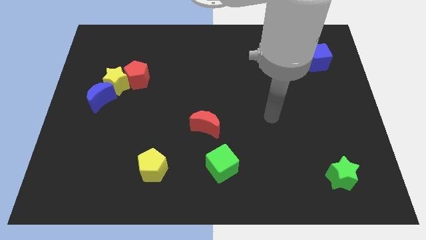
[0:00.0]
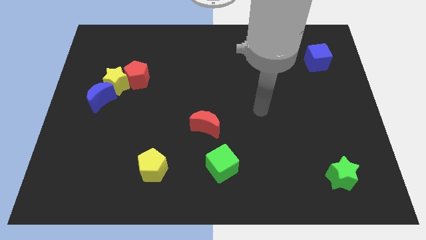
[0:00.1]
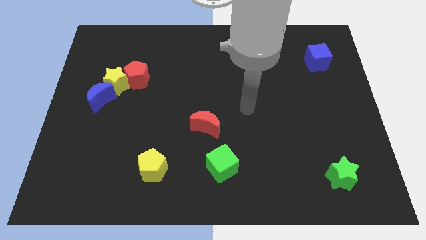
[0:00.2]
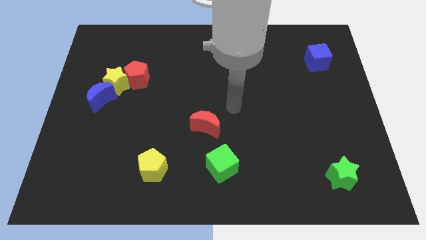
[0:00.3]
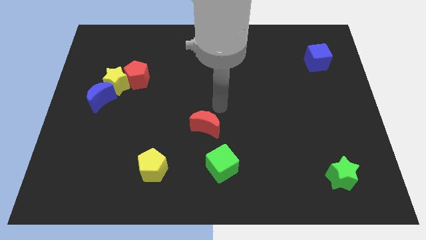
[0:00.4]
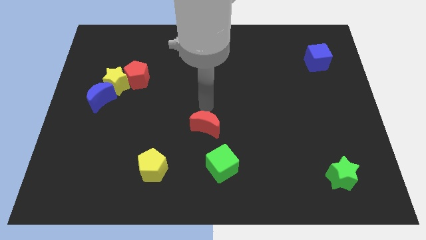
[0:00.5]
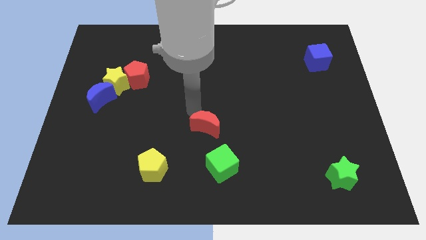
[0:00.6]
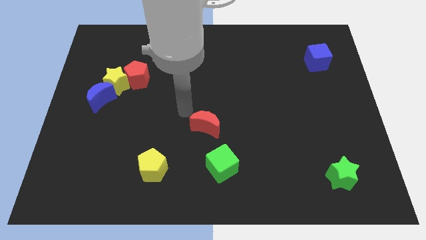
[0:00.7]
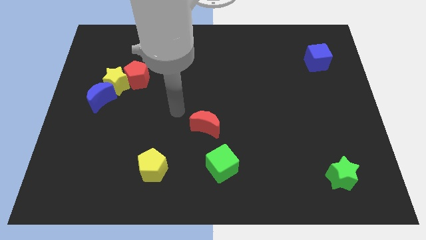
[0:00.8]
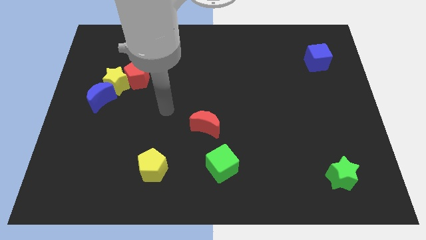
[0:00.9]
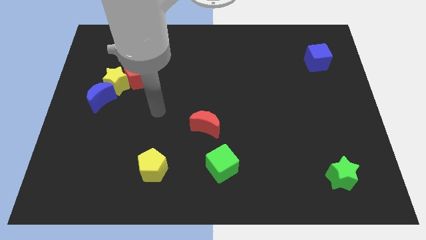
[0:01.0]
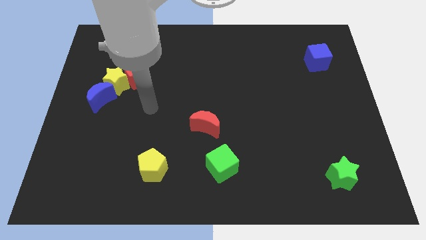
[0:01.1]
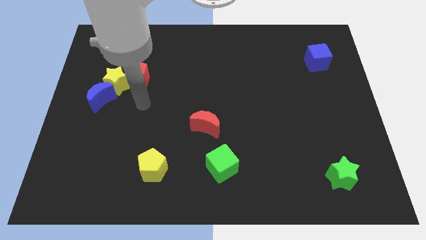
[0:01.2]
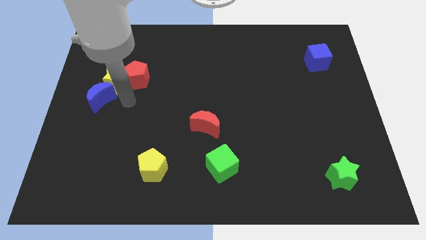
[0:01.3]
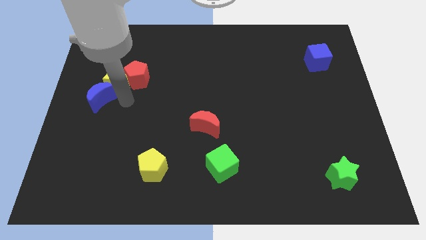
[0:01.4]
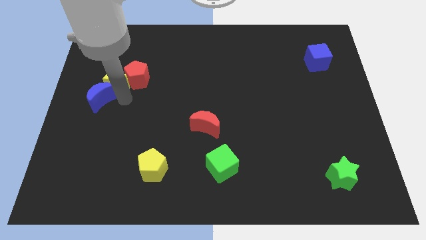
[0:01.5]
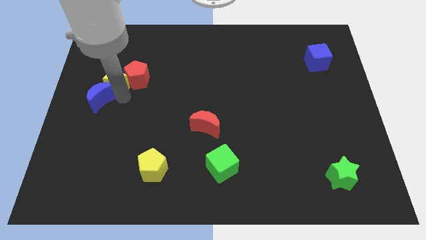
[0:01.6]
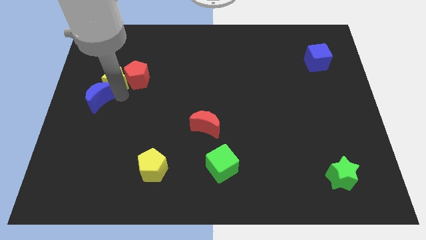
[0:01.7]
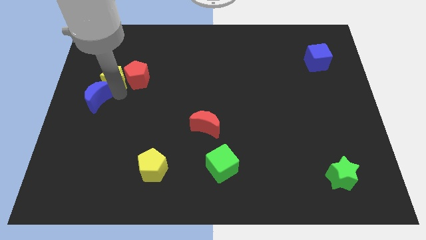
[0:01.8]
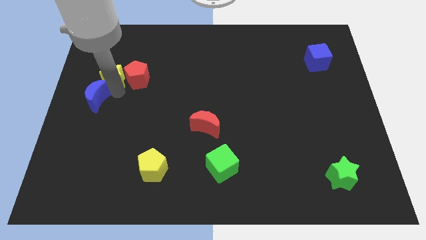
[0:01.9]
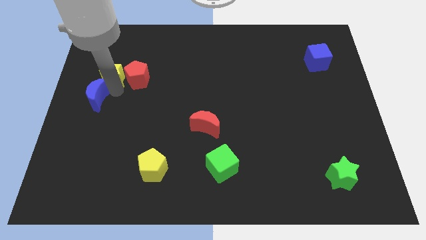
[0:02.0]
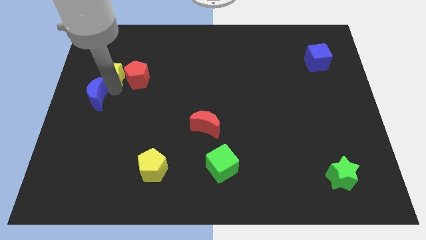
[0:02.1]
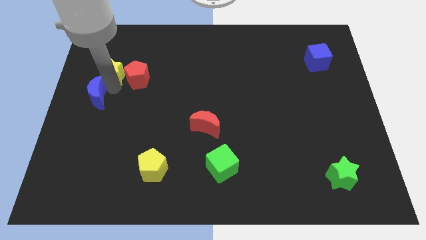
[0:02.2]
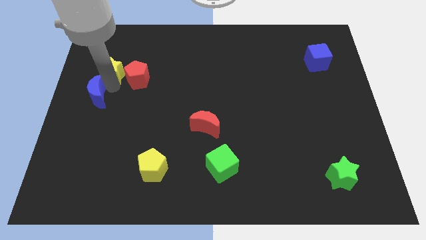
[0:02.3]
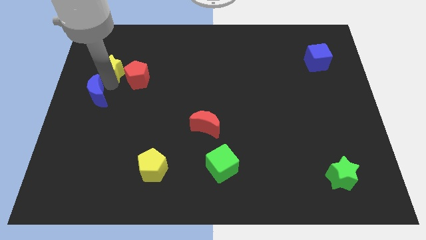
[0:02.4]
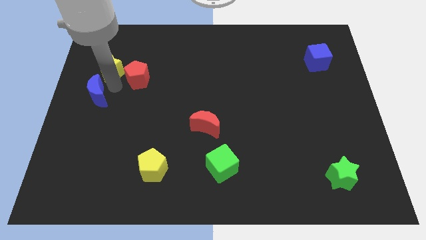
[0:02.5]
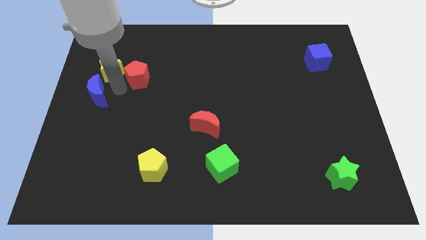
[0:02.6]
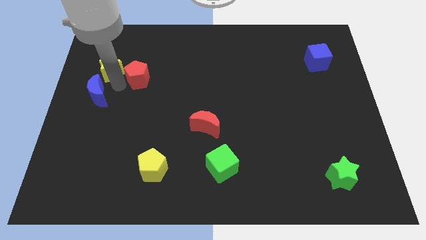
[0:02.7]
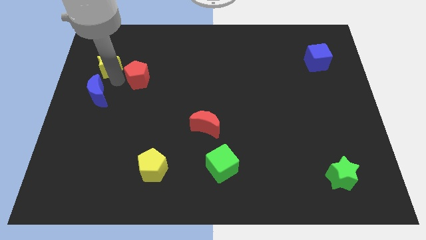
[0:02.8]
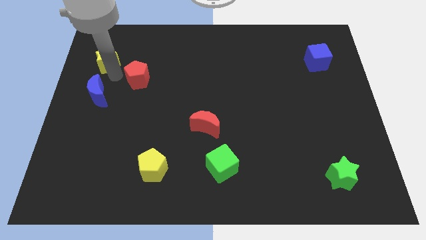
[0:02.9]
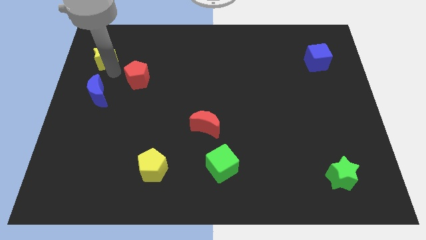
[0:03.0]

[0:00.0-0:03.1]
pull the yellow star apart from the red pentagon and blue moon

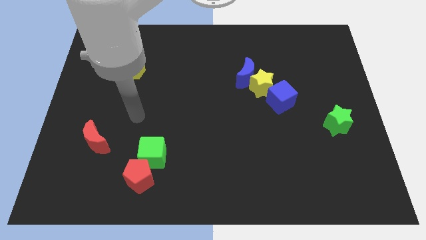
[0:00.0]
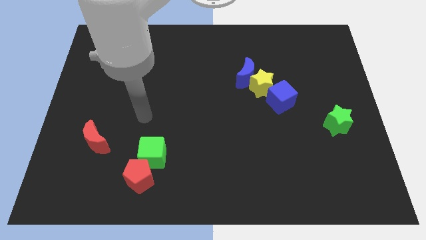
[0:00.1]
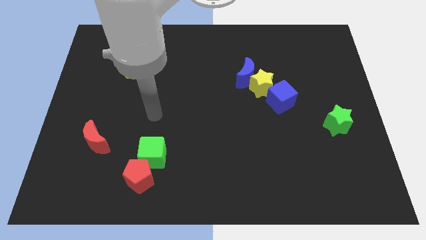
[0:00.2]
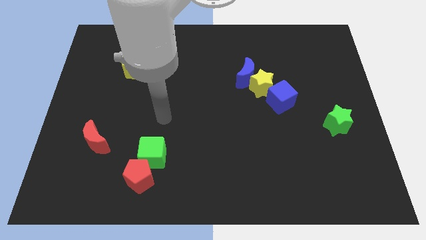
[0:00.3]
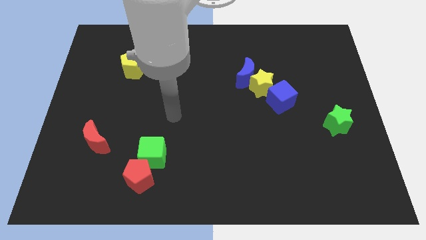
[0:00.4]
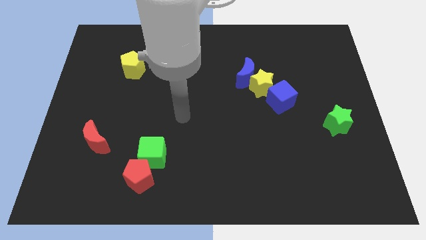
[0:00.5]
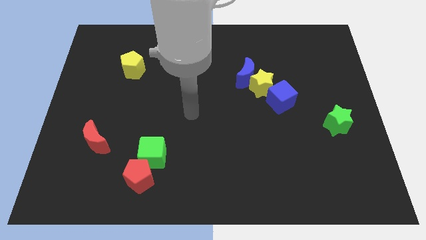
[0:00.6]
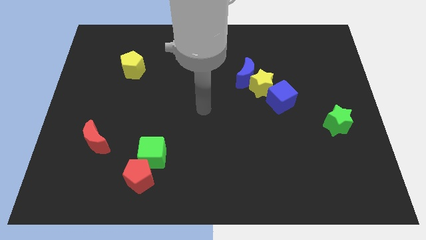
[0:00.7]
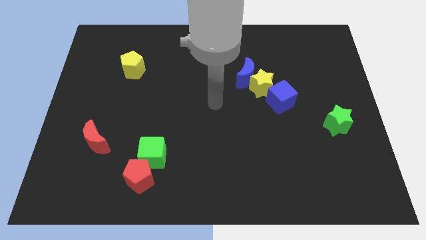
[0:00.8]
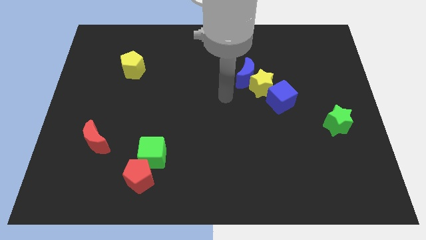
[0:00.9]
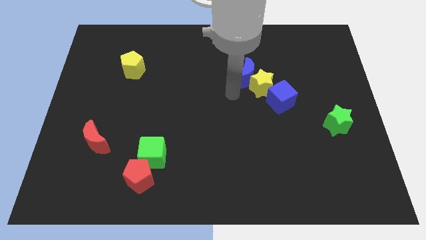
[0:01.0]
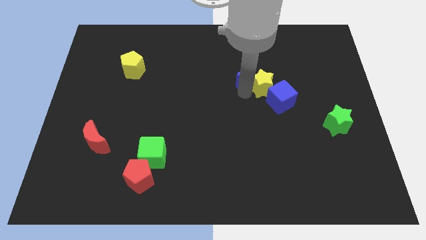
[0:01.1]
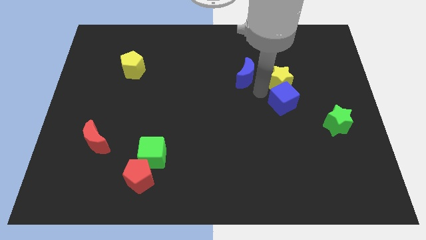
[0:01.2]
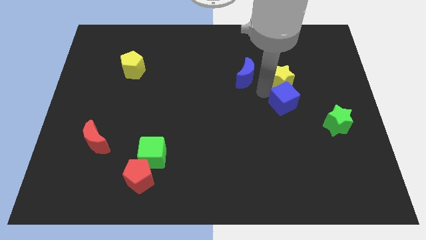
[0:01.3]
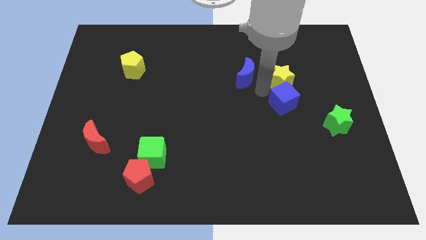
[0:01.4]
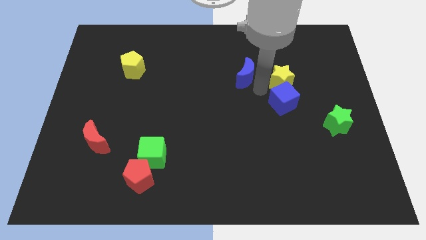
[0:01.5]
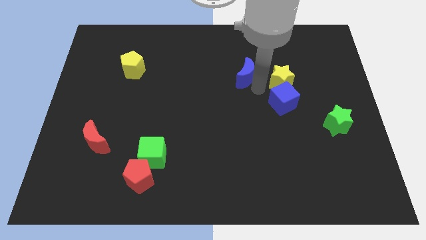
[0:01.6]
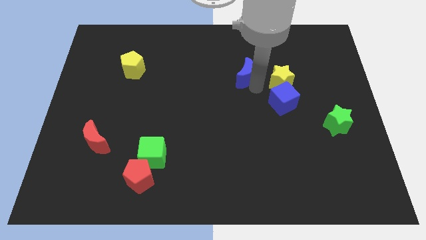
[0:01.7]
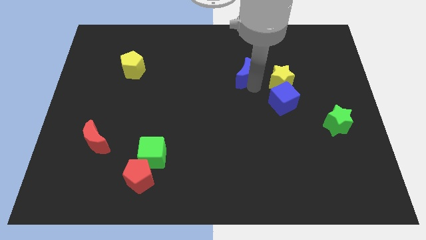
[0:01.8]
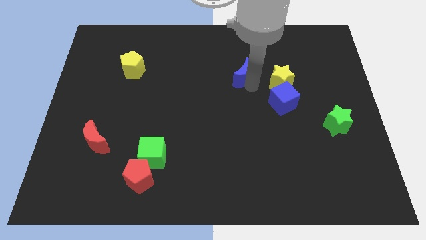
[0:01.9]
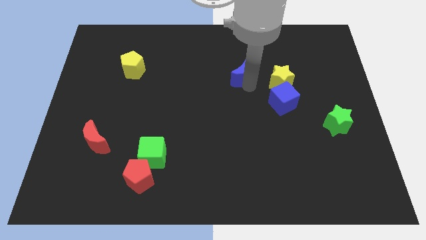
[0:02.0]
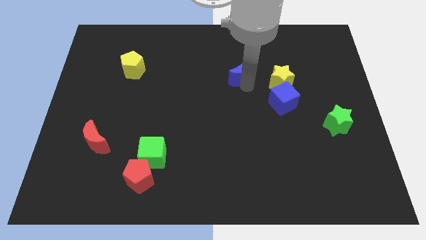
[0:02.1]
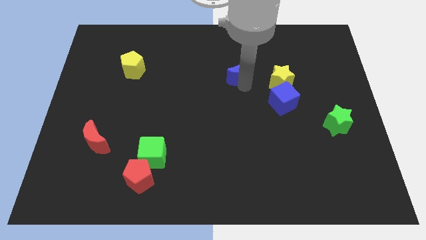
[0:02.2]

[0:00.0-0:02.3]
move the blue moon away from the yellow star

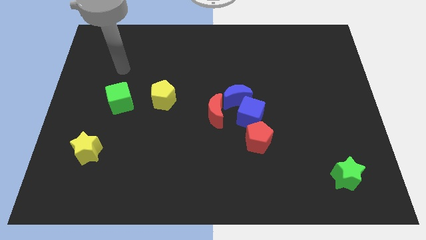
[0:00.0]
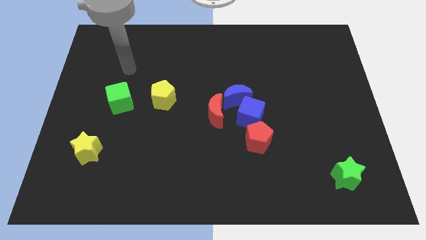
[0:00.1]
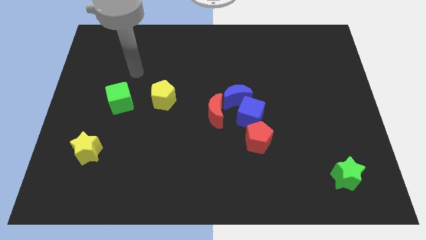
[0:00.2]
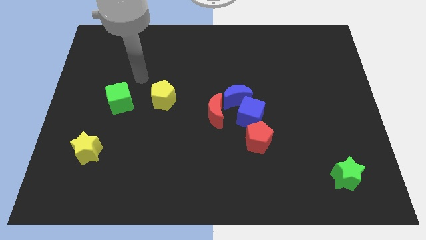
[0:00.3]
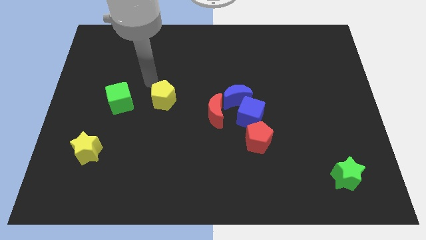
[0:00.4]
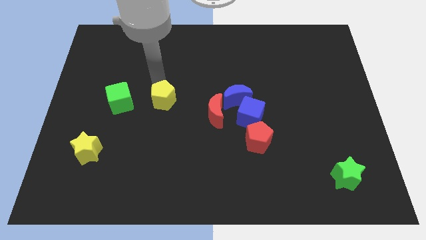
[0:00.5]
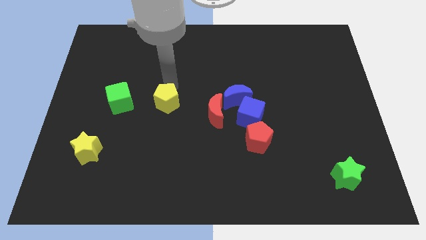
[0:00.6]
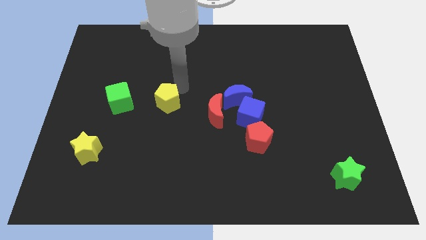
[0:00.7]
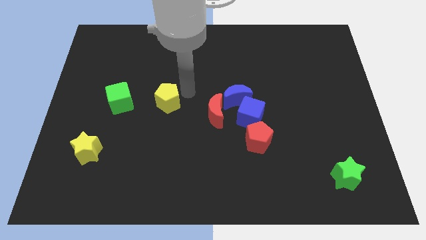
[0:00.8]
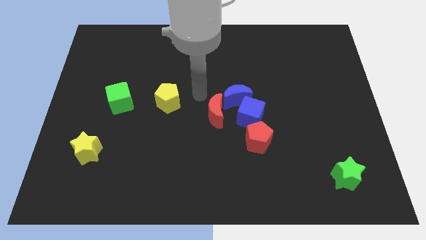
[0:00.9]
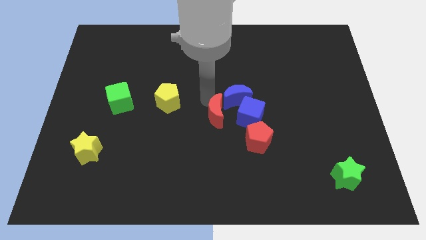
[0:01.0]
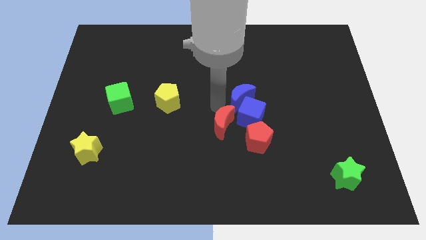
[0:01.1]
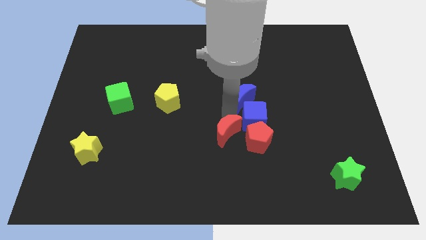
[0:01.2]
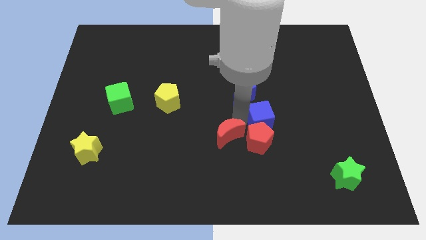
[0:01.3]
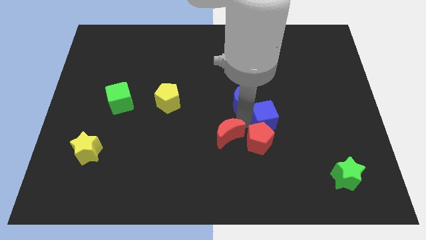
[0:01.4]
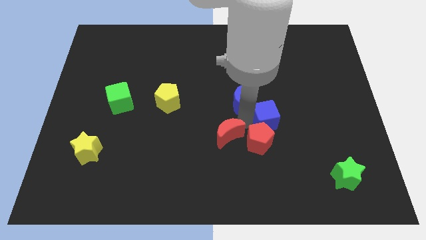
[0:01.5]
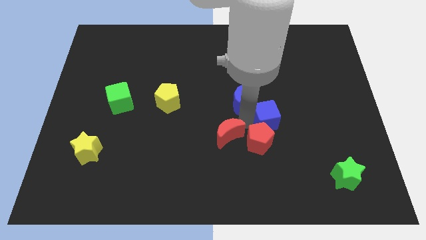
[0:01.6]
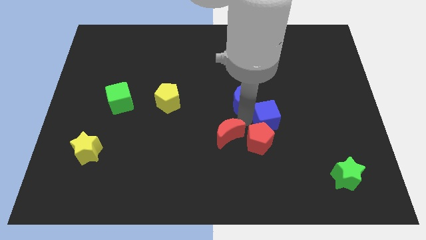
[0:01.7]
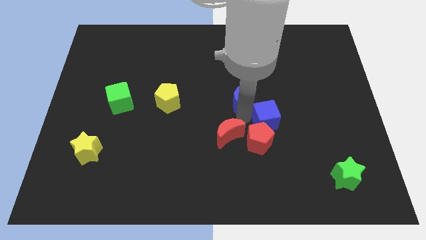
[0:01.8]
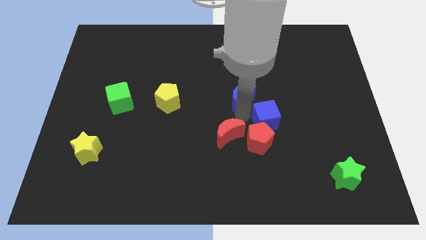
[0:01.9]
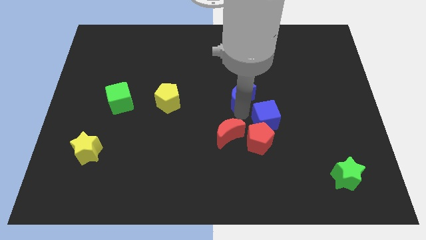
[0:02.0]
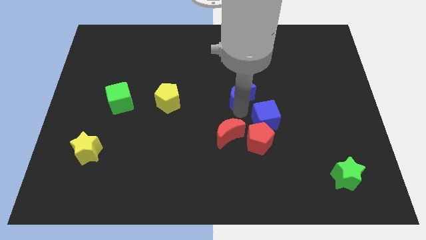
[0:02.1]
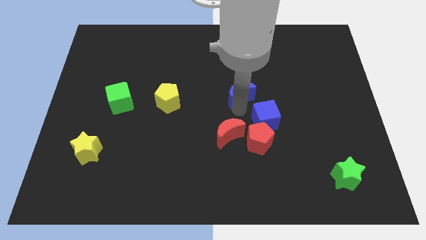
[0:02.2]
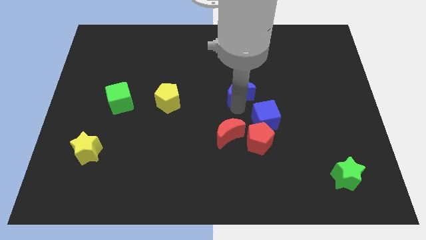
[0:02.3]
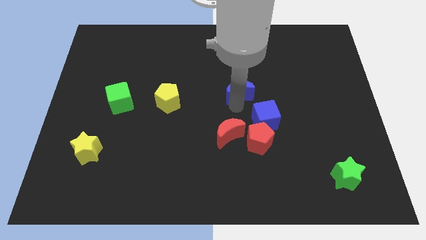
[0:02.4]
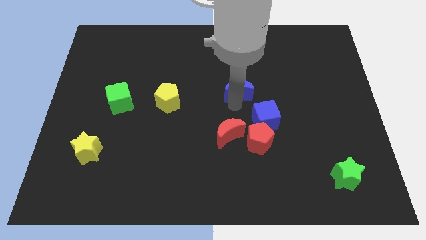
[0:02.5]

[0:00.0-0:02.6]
move the blue moon away from the blue cube and red moon

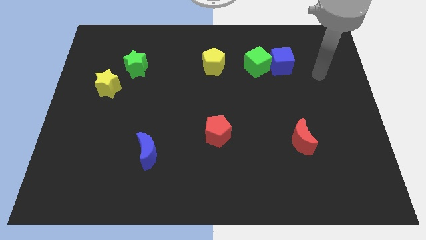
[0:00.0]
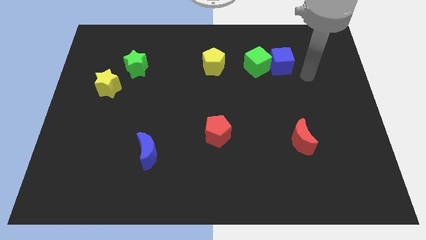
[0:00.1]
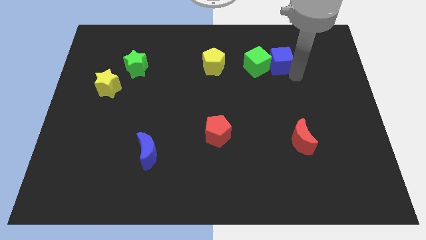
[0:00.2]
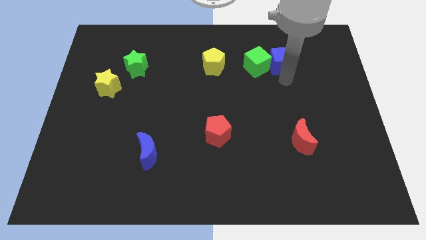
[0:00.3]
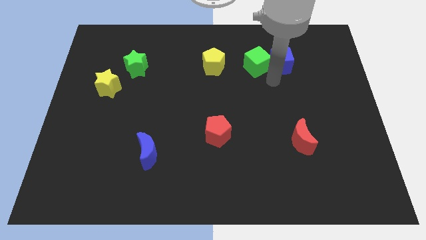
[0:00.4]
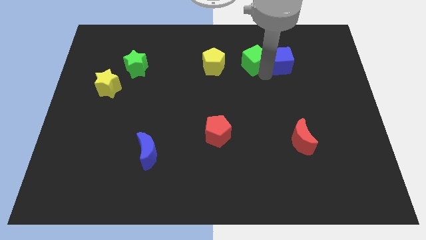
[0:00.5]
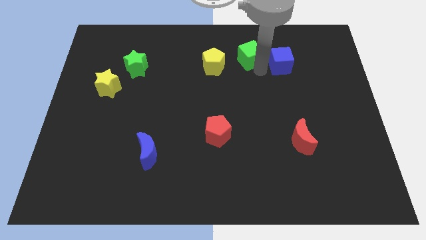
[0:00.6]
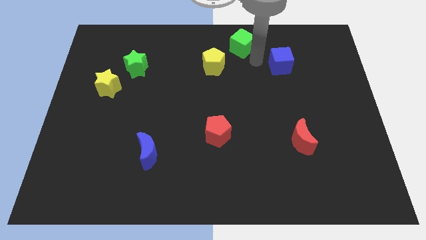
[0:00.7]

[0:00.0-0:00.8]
pull the blue cube apart from the green cube

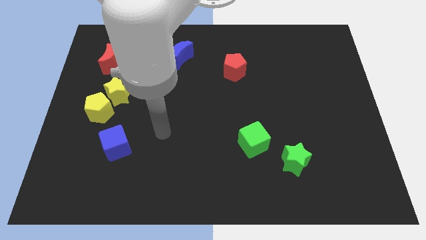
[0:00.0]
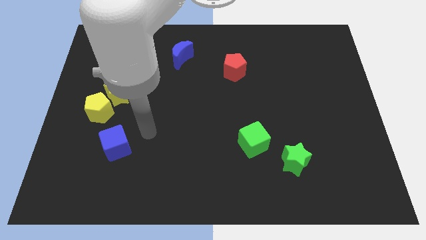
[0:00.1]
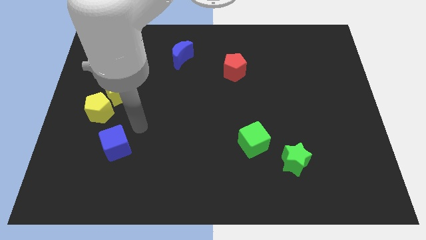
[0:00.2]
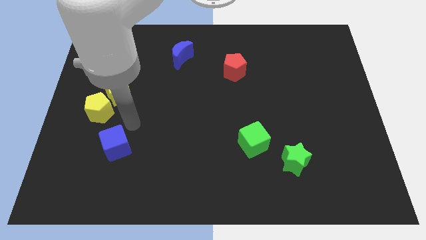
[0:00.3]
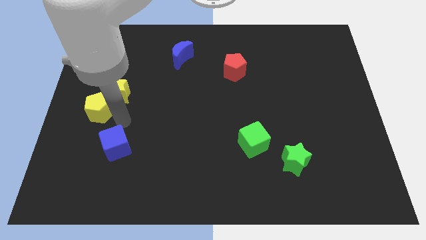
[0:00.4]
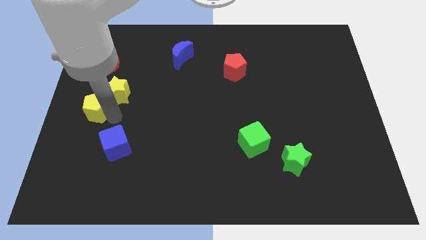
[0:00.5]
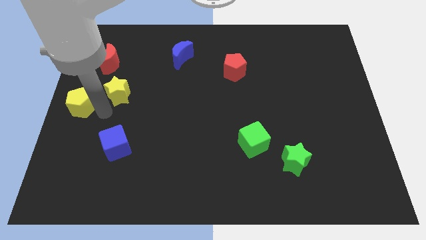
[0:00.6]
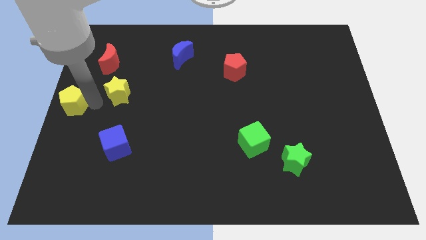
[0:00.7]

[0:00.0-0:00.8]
separate the yellow star from the yellow pentagon
